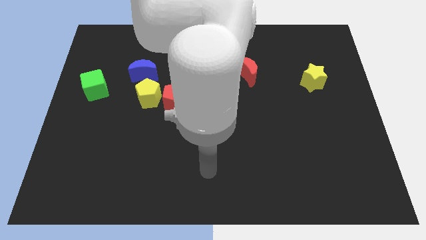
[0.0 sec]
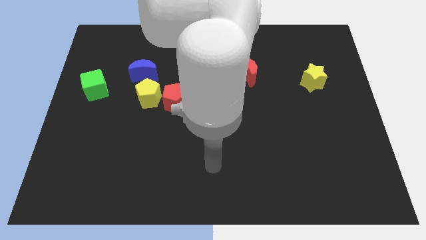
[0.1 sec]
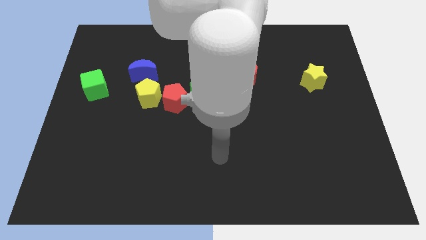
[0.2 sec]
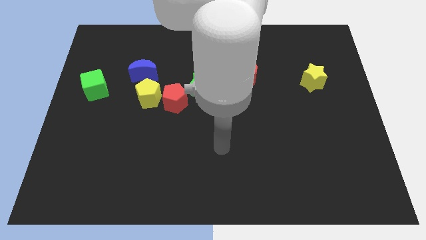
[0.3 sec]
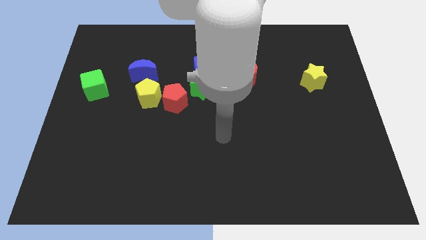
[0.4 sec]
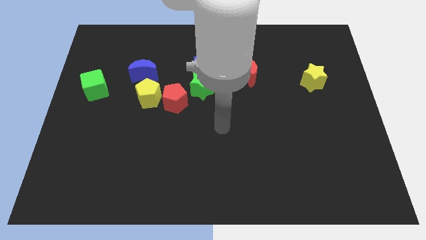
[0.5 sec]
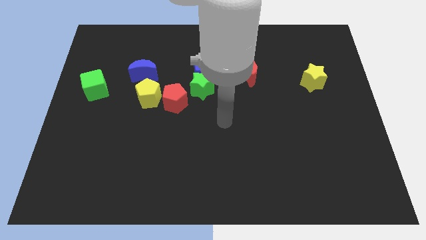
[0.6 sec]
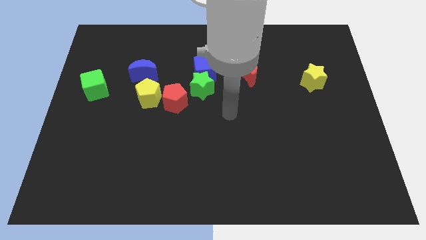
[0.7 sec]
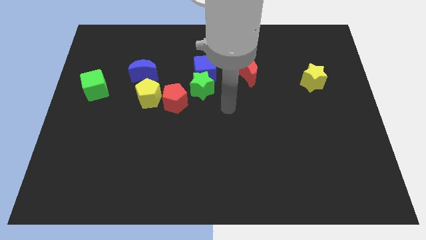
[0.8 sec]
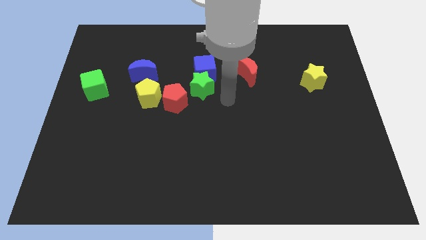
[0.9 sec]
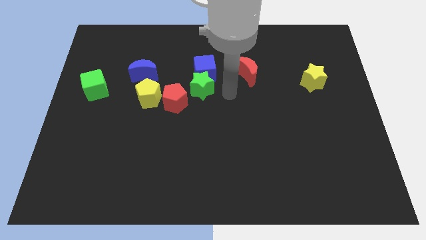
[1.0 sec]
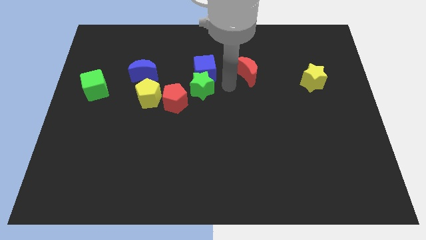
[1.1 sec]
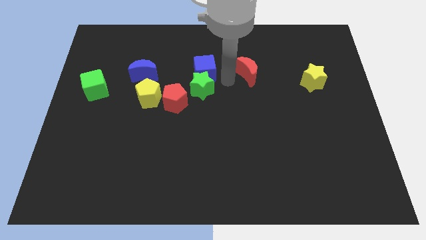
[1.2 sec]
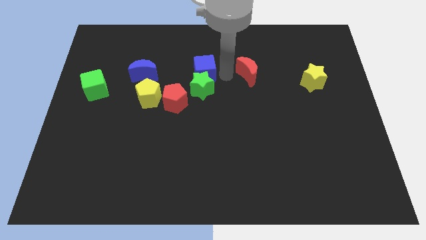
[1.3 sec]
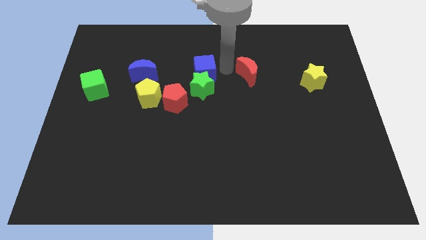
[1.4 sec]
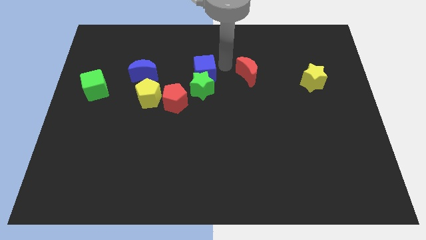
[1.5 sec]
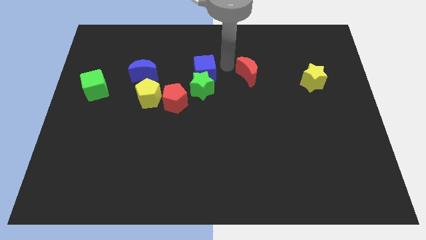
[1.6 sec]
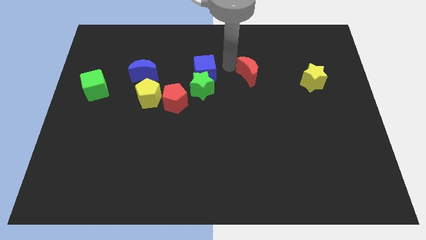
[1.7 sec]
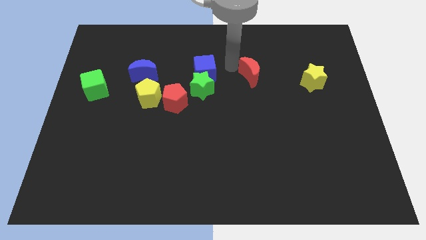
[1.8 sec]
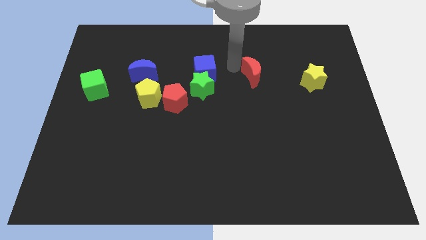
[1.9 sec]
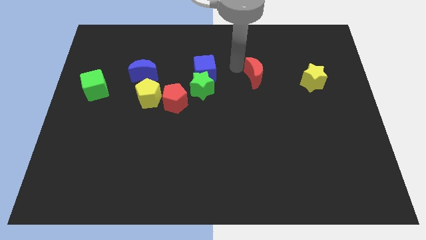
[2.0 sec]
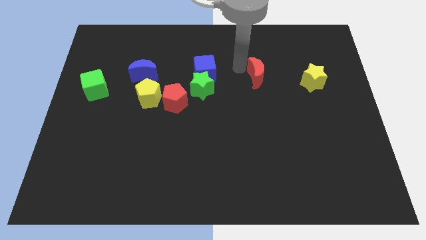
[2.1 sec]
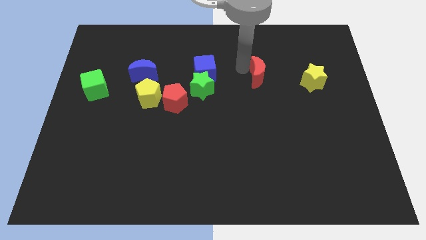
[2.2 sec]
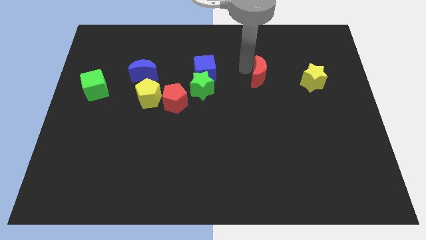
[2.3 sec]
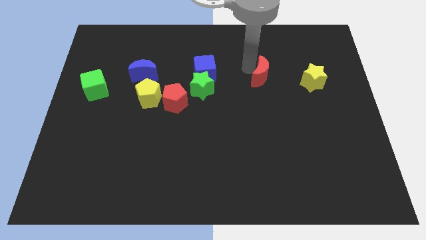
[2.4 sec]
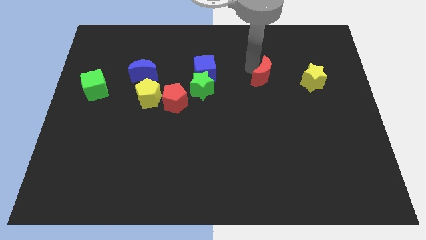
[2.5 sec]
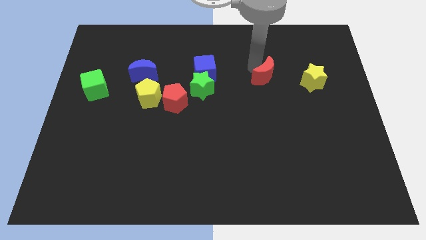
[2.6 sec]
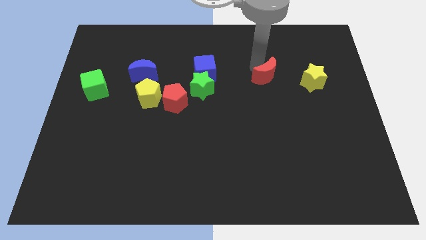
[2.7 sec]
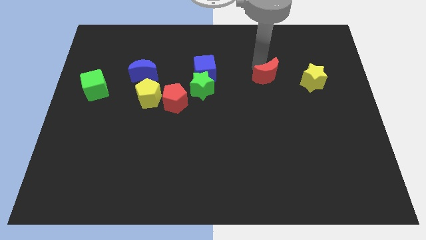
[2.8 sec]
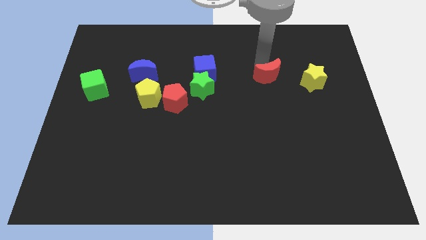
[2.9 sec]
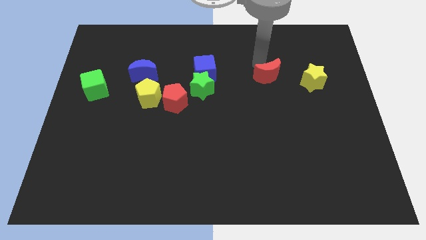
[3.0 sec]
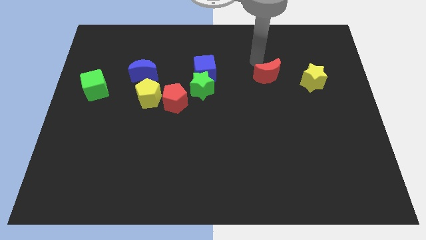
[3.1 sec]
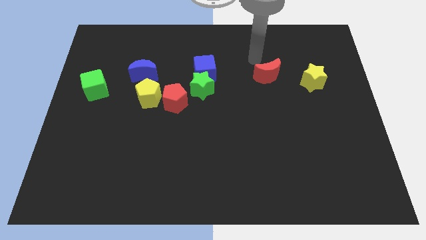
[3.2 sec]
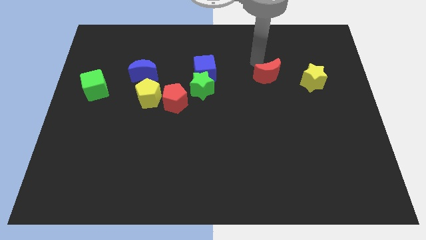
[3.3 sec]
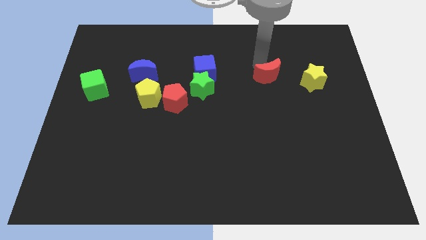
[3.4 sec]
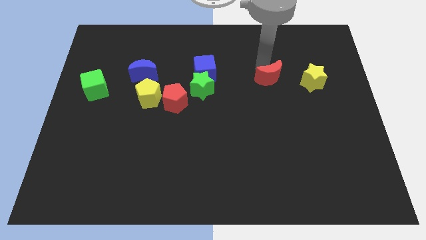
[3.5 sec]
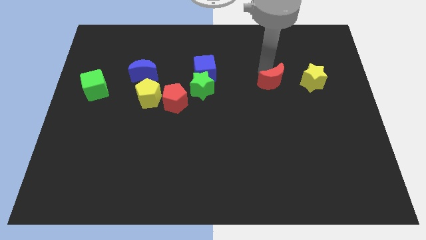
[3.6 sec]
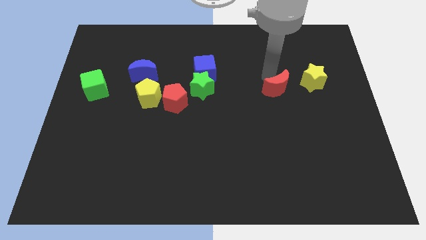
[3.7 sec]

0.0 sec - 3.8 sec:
move the red moon downwards and right diagonally a bit

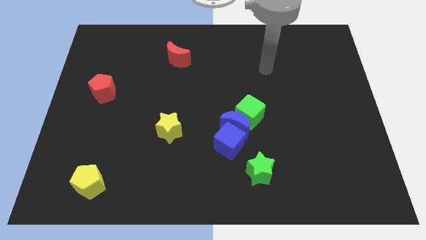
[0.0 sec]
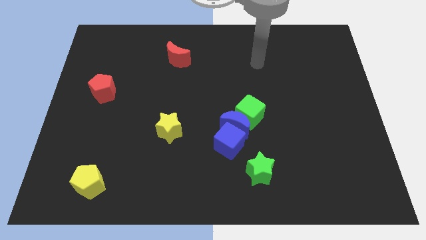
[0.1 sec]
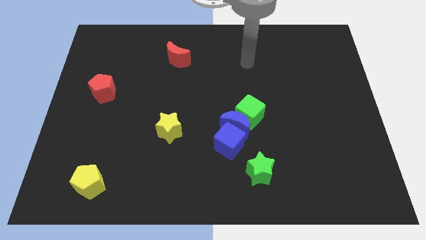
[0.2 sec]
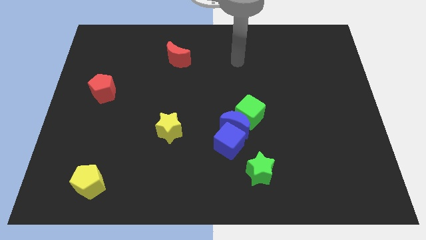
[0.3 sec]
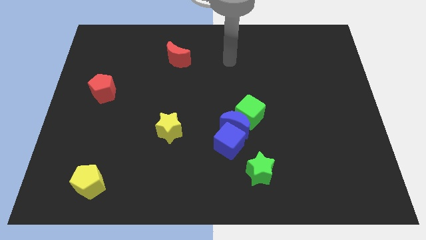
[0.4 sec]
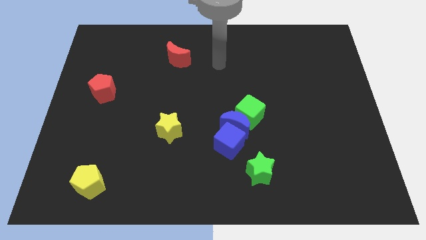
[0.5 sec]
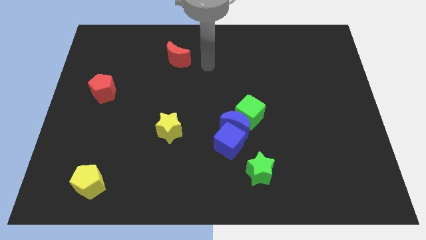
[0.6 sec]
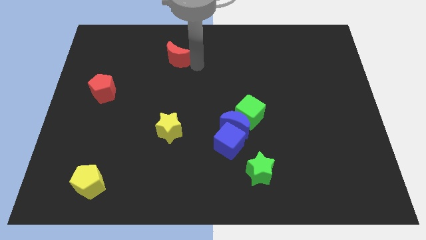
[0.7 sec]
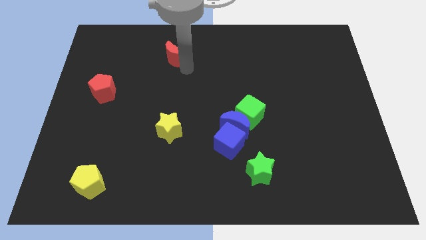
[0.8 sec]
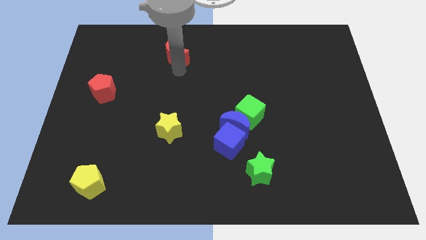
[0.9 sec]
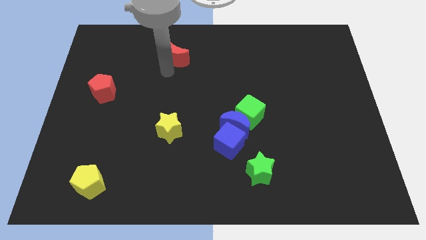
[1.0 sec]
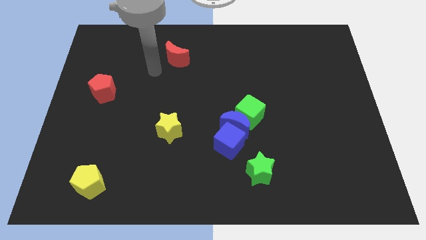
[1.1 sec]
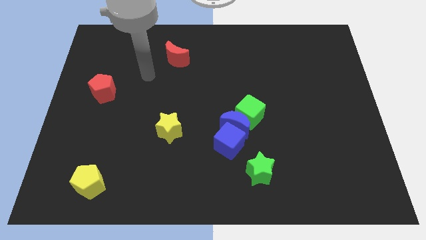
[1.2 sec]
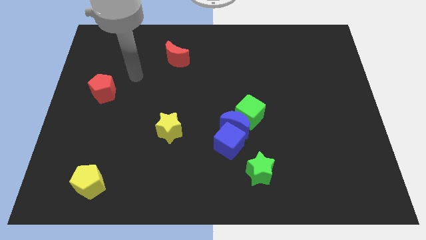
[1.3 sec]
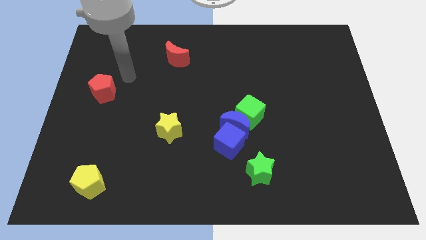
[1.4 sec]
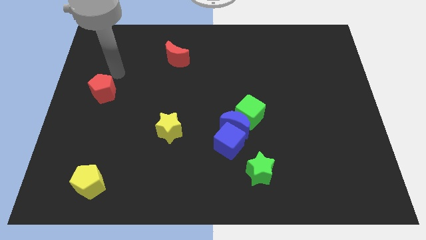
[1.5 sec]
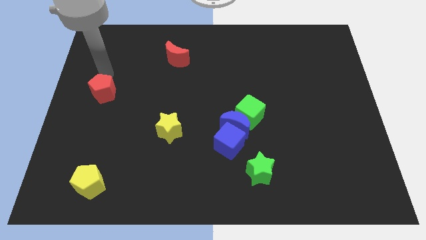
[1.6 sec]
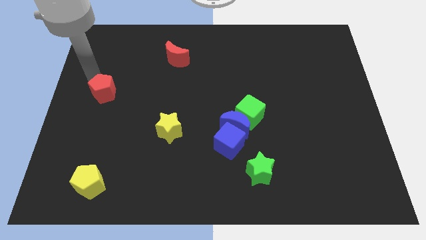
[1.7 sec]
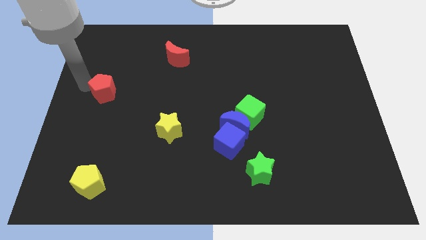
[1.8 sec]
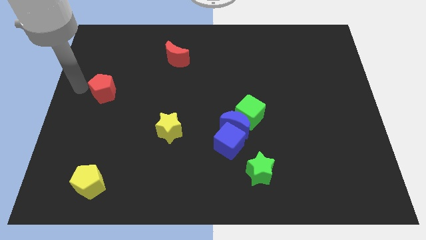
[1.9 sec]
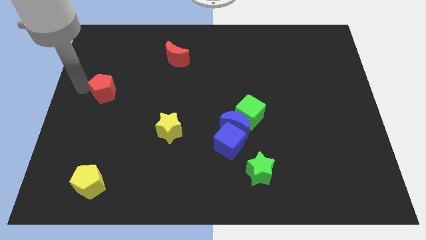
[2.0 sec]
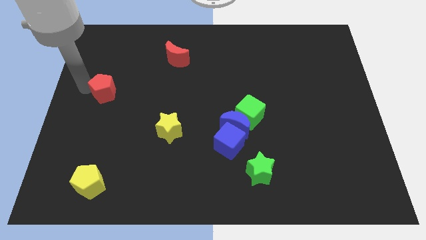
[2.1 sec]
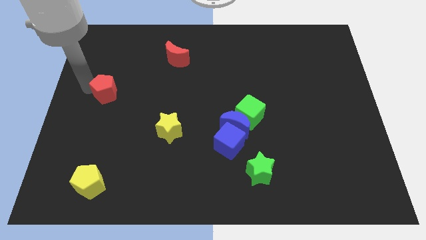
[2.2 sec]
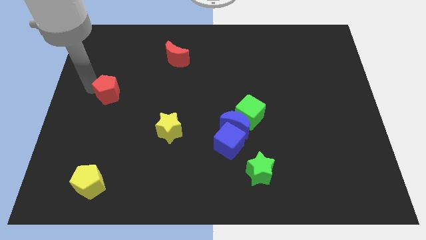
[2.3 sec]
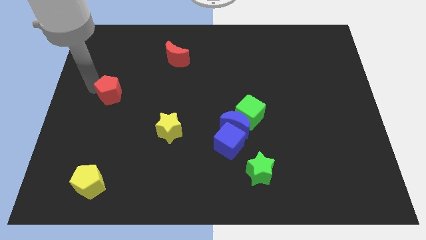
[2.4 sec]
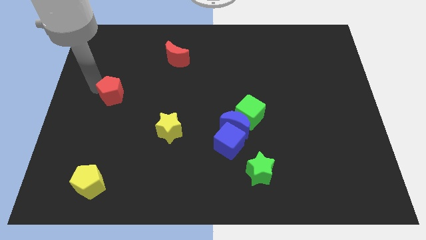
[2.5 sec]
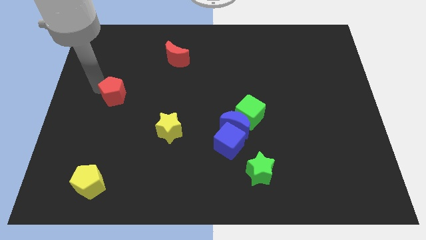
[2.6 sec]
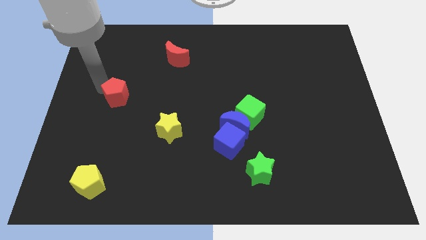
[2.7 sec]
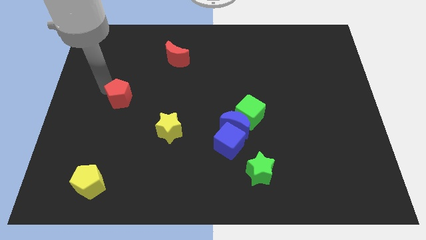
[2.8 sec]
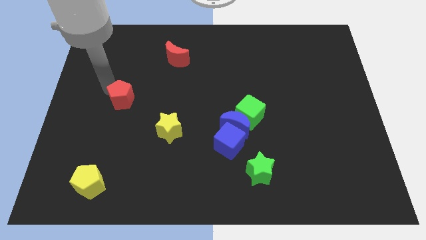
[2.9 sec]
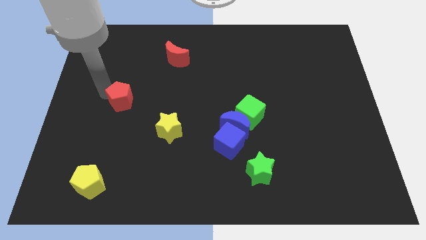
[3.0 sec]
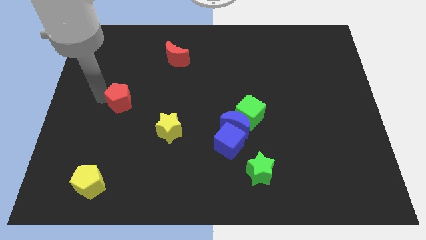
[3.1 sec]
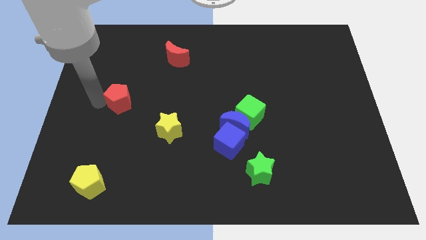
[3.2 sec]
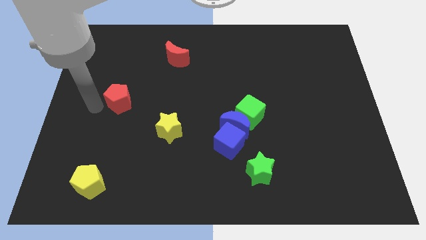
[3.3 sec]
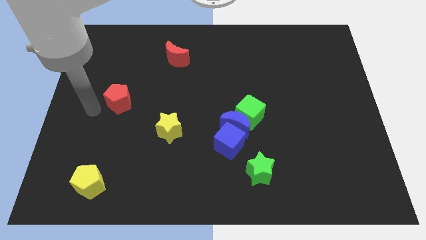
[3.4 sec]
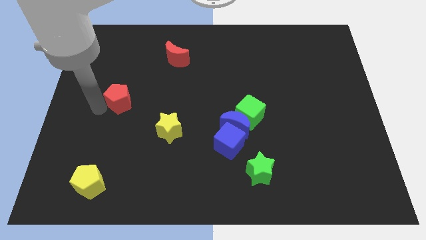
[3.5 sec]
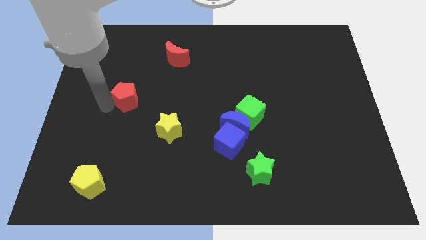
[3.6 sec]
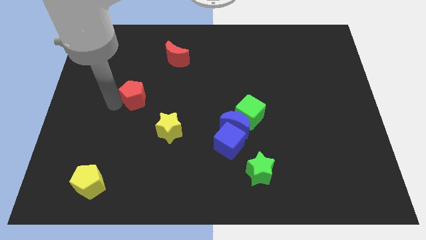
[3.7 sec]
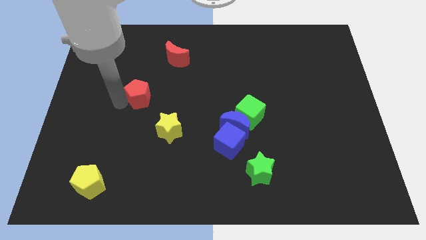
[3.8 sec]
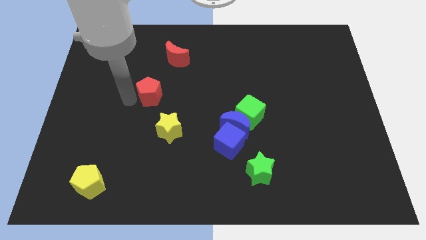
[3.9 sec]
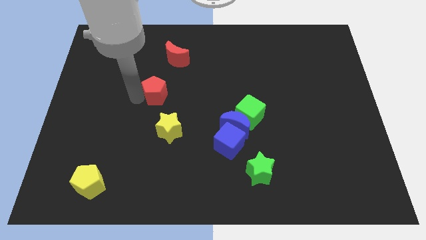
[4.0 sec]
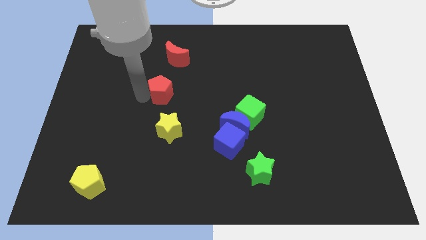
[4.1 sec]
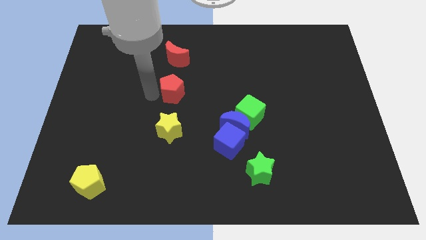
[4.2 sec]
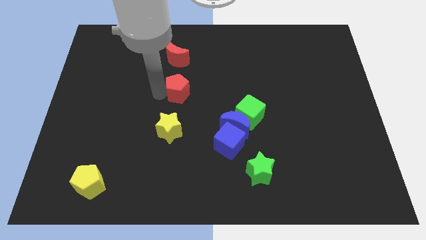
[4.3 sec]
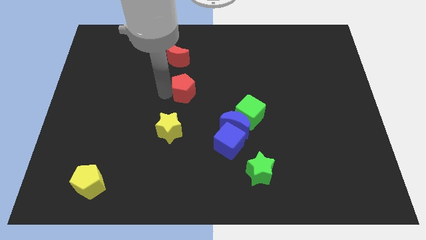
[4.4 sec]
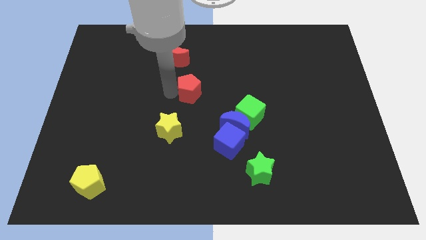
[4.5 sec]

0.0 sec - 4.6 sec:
move the red pentagon right
